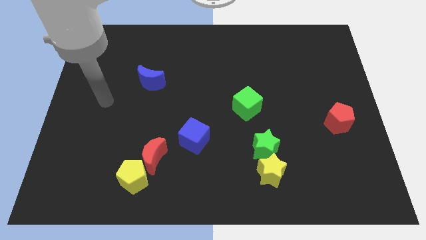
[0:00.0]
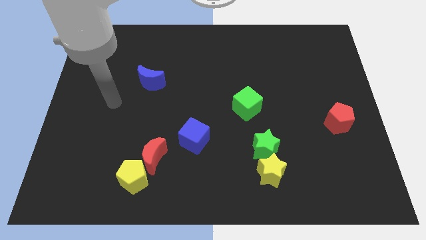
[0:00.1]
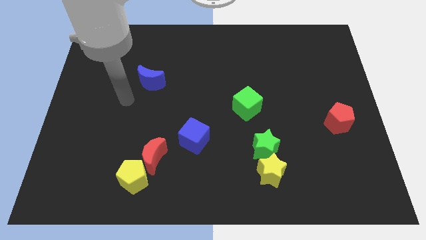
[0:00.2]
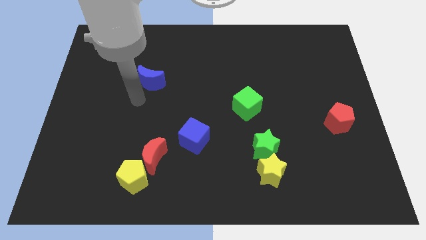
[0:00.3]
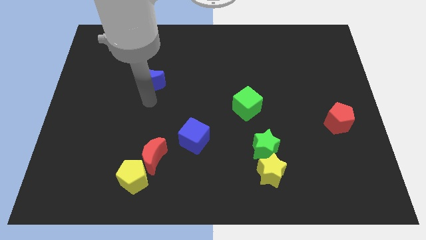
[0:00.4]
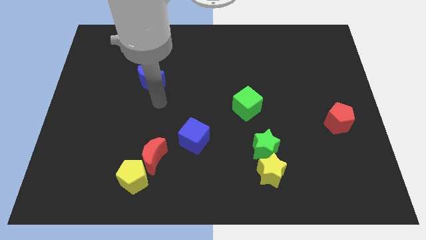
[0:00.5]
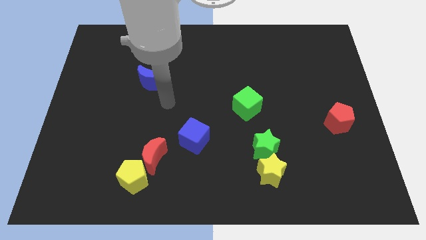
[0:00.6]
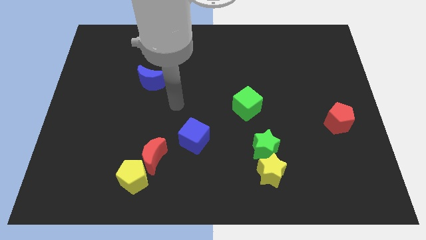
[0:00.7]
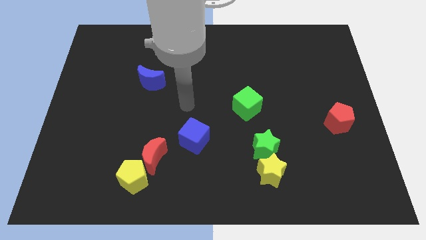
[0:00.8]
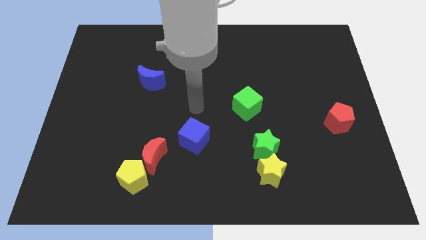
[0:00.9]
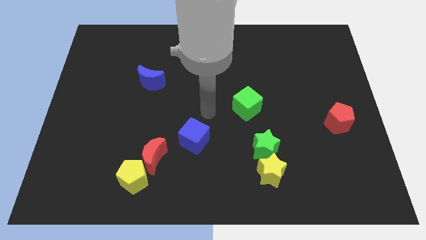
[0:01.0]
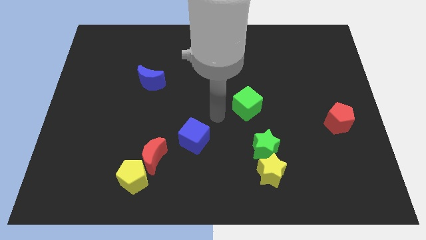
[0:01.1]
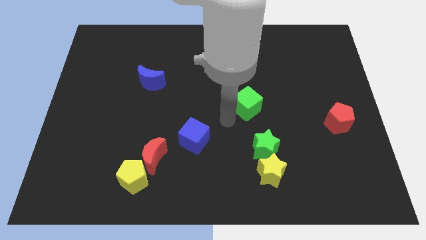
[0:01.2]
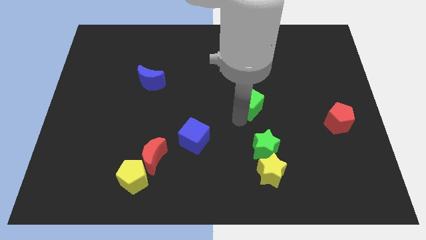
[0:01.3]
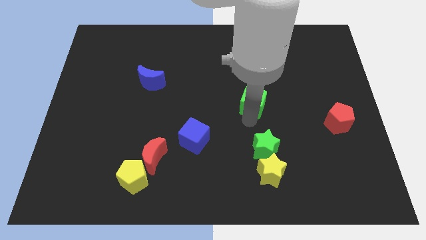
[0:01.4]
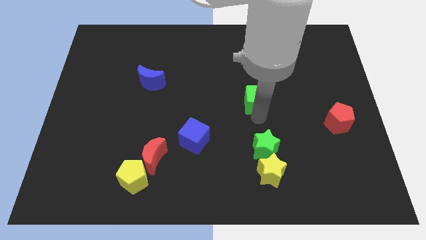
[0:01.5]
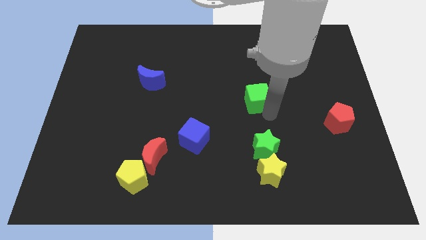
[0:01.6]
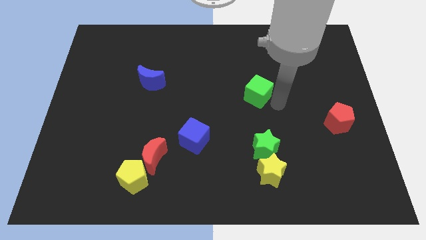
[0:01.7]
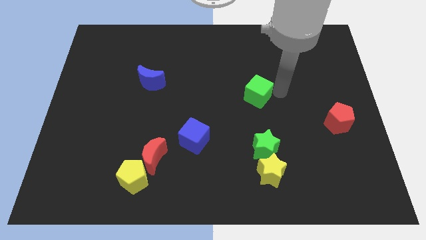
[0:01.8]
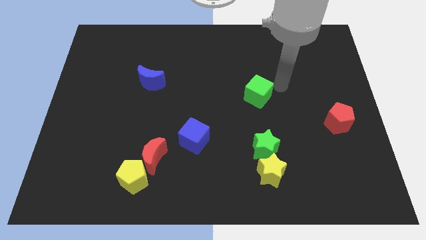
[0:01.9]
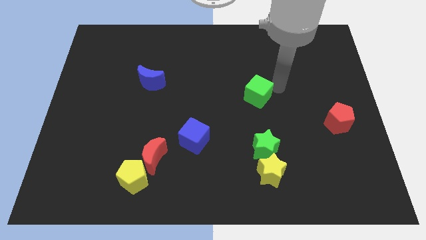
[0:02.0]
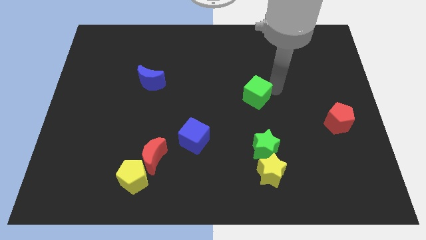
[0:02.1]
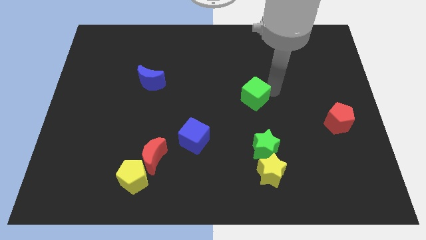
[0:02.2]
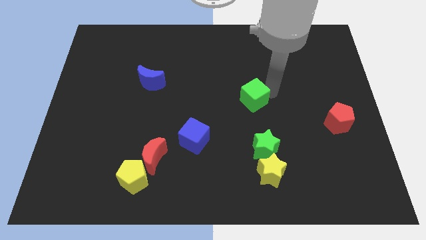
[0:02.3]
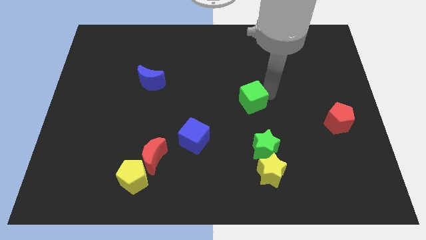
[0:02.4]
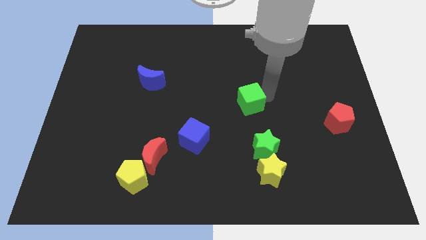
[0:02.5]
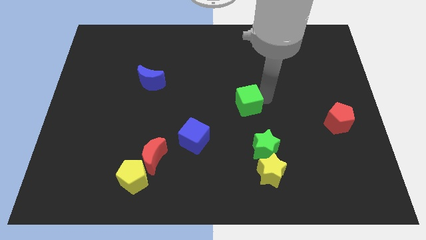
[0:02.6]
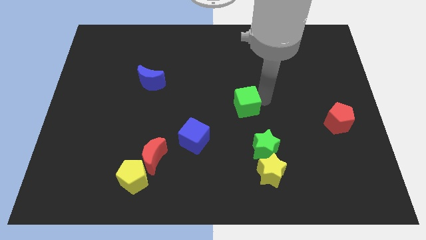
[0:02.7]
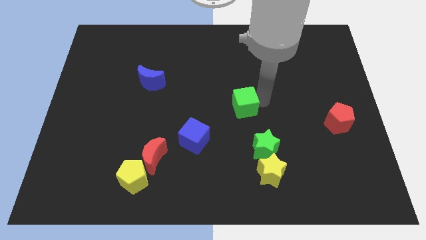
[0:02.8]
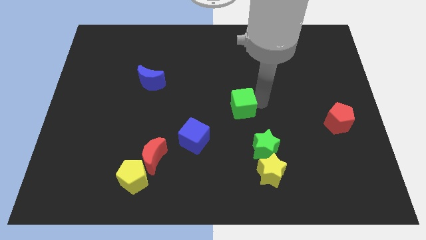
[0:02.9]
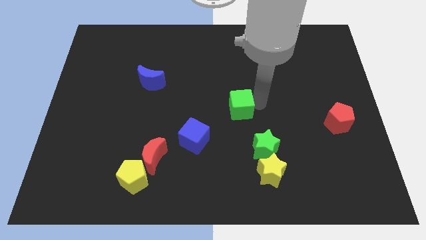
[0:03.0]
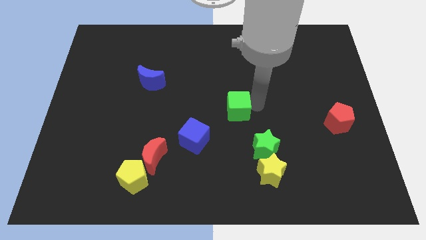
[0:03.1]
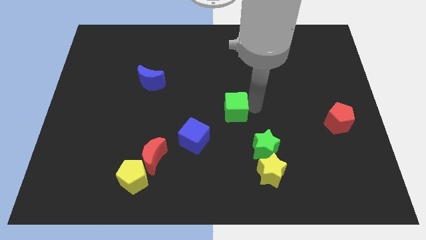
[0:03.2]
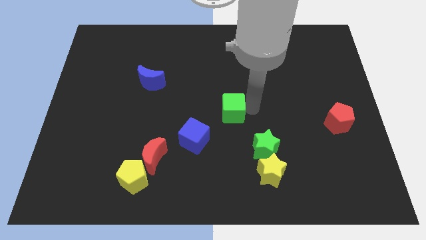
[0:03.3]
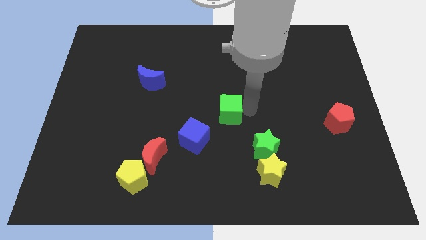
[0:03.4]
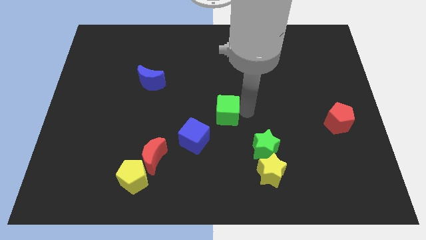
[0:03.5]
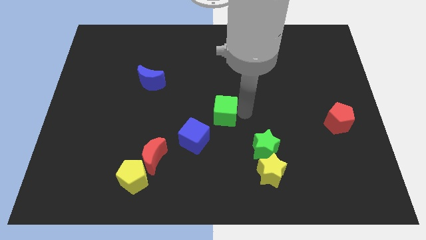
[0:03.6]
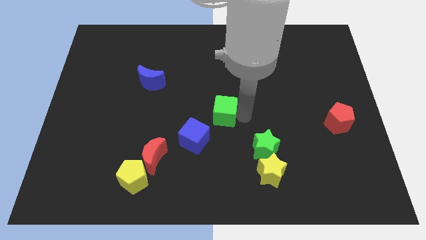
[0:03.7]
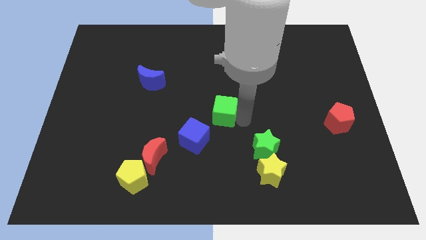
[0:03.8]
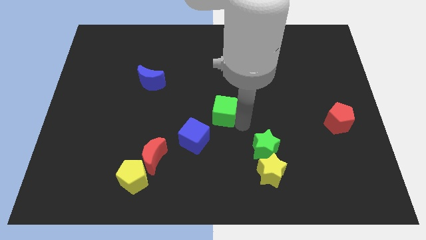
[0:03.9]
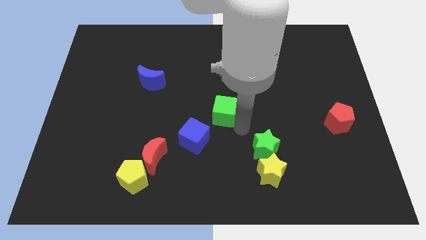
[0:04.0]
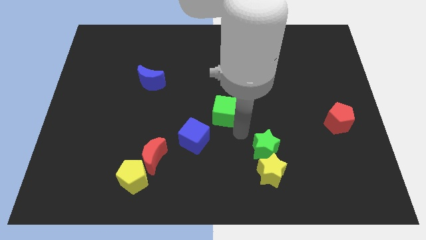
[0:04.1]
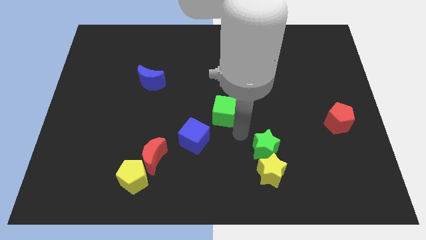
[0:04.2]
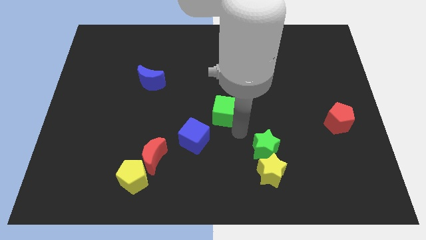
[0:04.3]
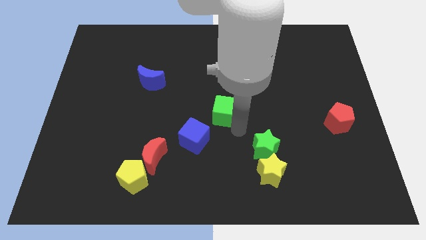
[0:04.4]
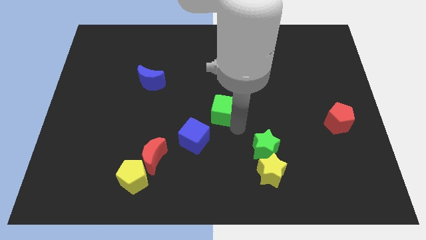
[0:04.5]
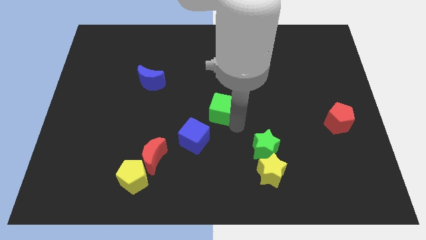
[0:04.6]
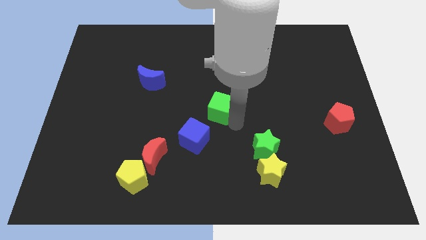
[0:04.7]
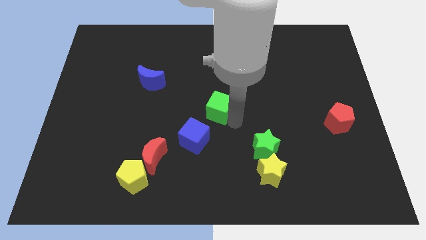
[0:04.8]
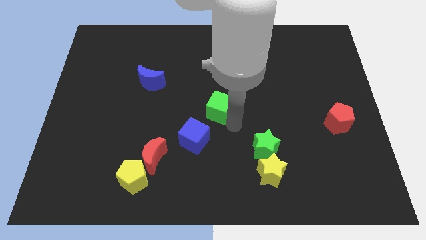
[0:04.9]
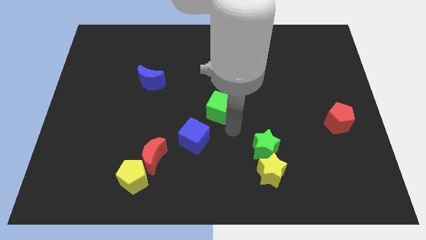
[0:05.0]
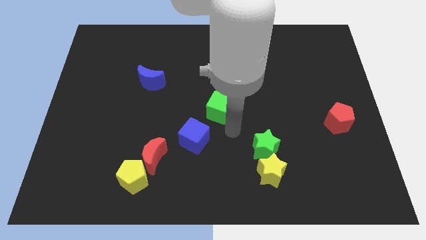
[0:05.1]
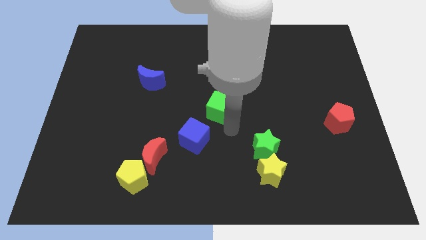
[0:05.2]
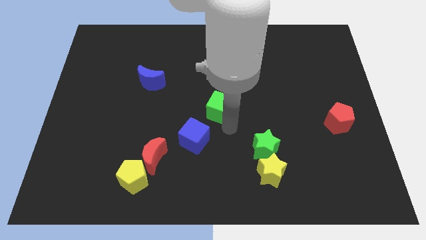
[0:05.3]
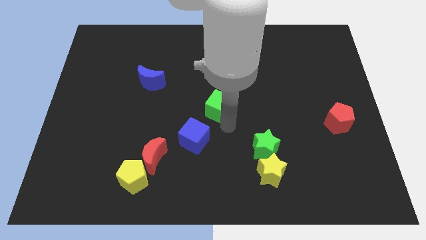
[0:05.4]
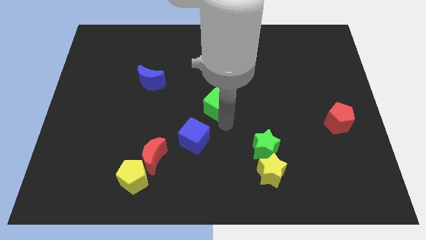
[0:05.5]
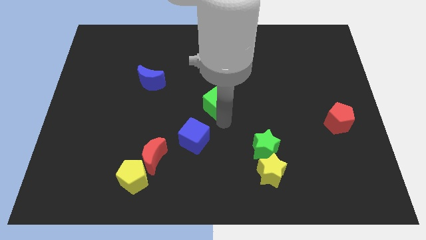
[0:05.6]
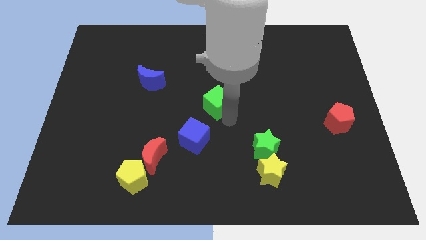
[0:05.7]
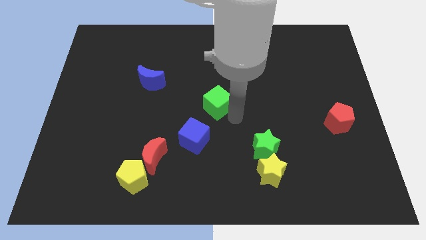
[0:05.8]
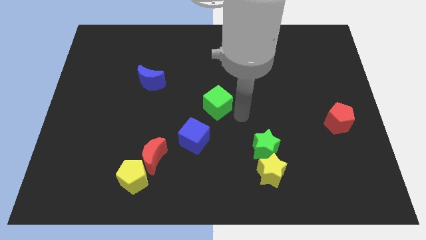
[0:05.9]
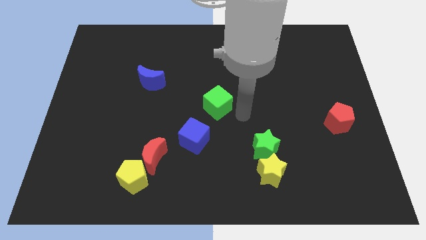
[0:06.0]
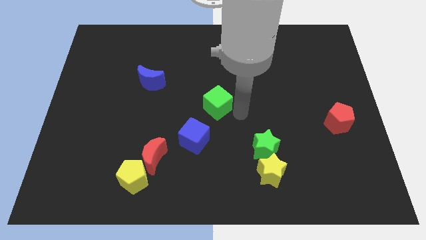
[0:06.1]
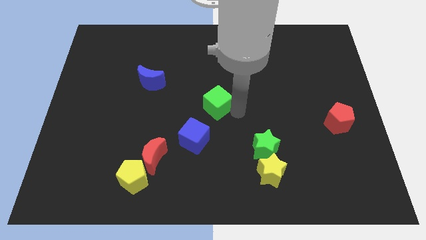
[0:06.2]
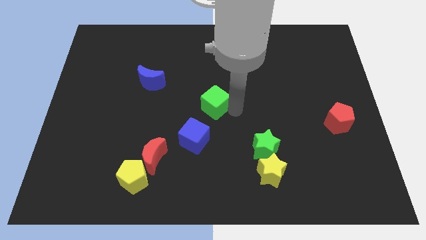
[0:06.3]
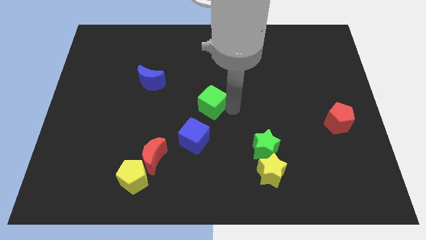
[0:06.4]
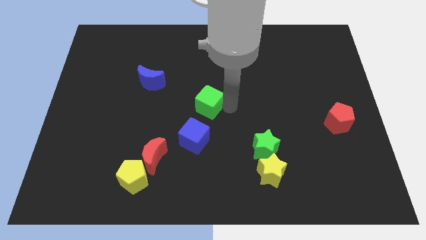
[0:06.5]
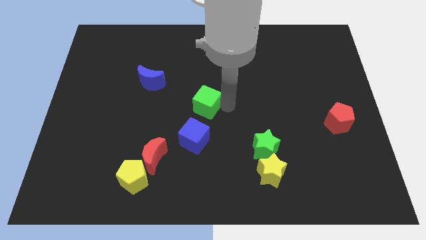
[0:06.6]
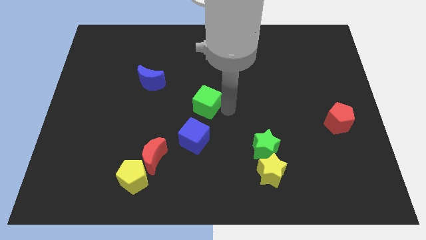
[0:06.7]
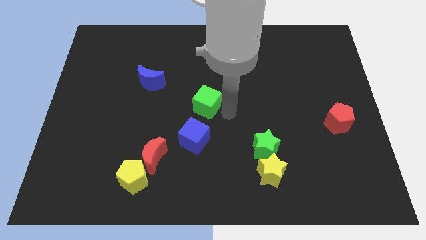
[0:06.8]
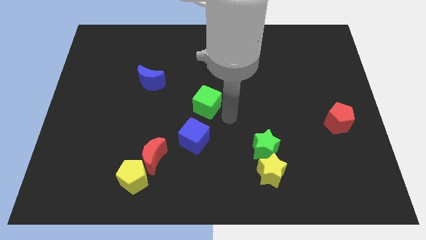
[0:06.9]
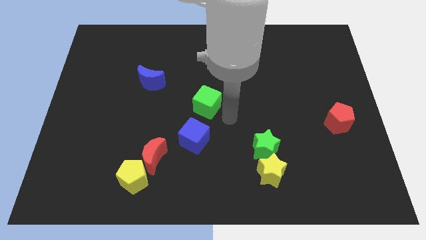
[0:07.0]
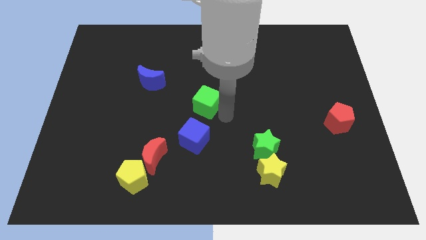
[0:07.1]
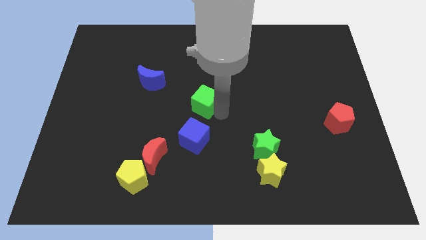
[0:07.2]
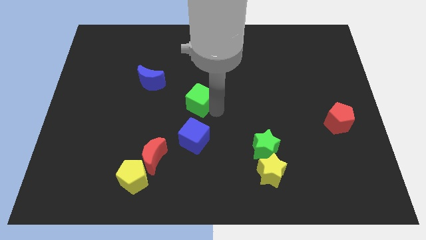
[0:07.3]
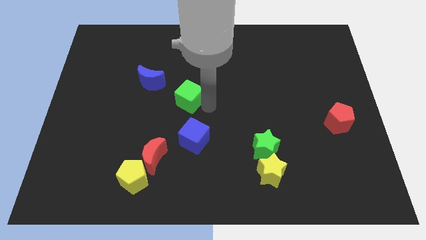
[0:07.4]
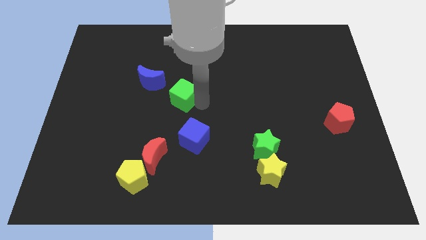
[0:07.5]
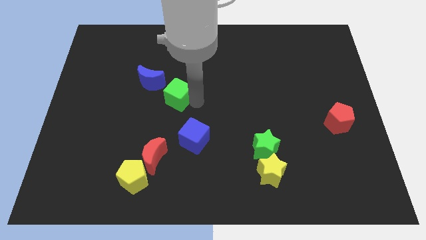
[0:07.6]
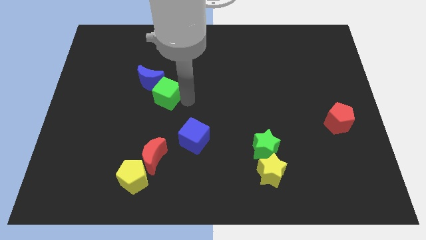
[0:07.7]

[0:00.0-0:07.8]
move the green cube next to the blue moon
